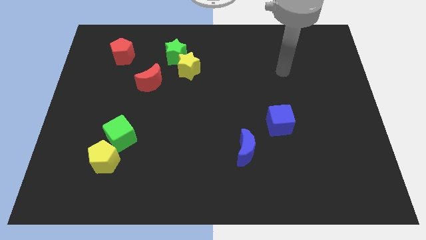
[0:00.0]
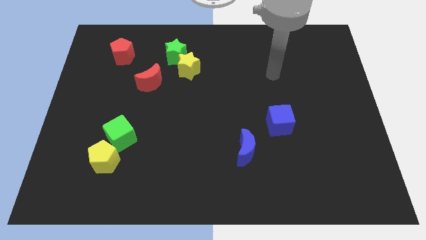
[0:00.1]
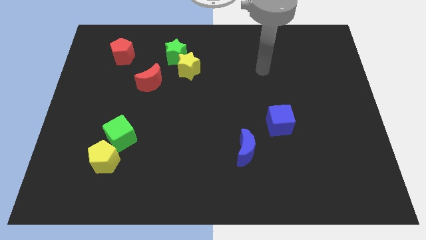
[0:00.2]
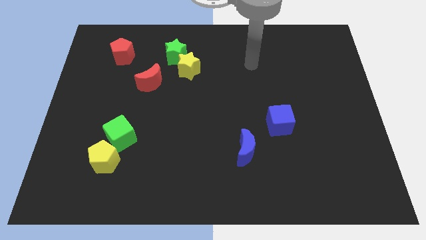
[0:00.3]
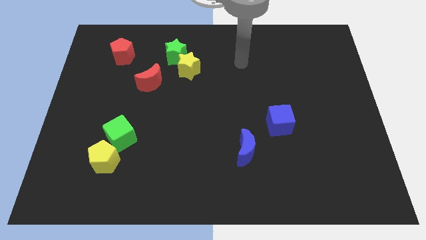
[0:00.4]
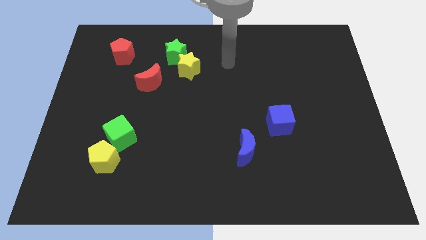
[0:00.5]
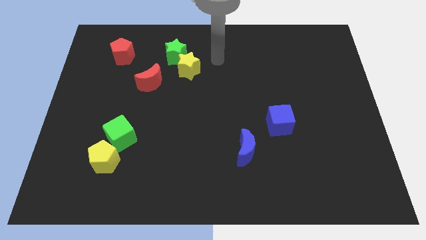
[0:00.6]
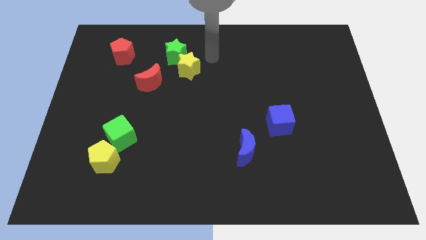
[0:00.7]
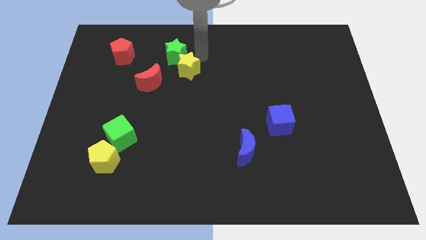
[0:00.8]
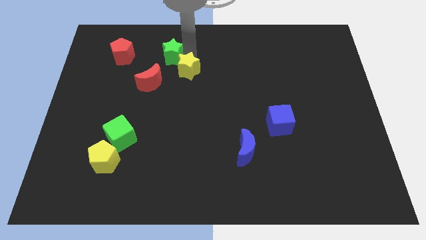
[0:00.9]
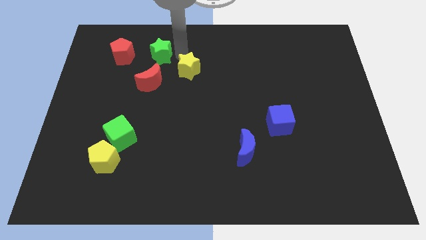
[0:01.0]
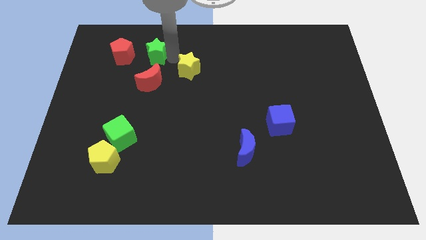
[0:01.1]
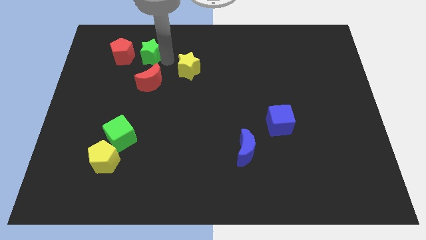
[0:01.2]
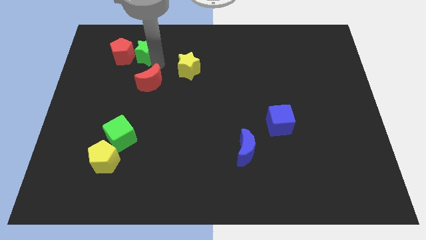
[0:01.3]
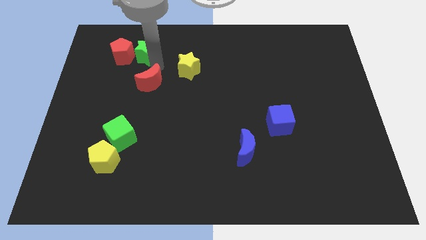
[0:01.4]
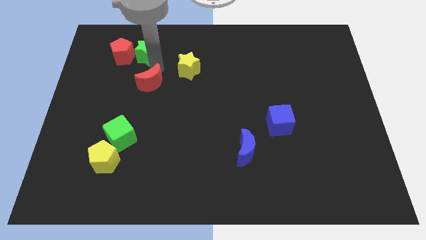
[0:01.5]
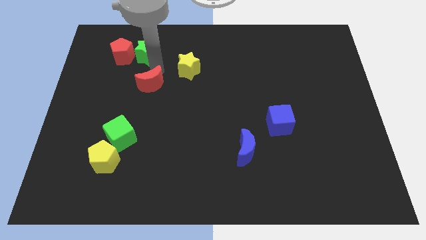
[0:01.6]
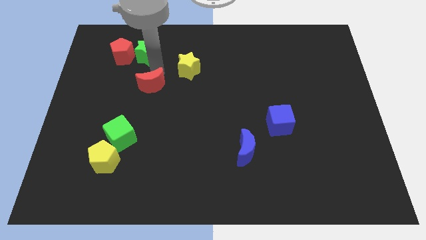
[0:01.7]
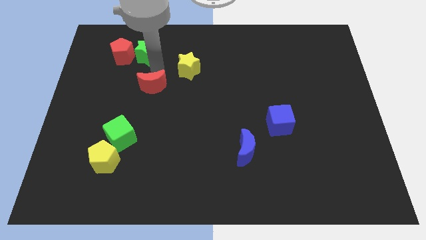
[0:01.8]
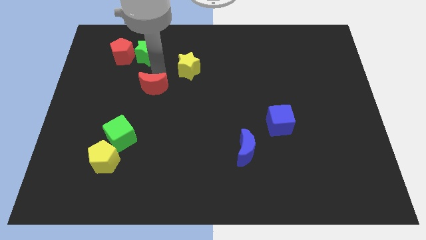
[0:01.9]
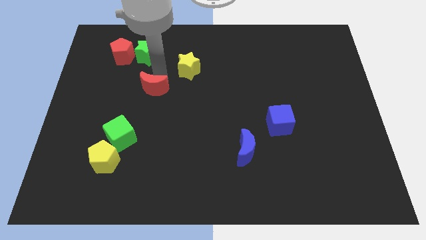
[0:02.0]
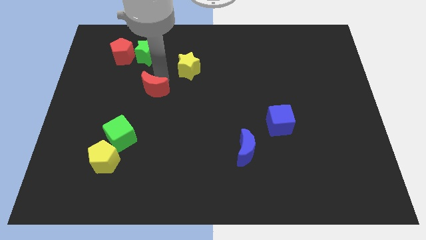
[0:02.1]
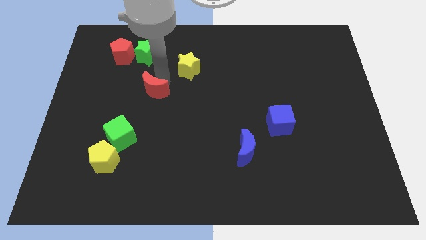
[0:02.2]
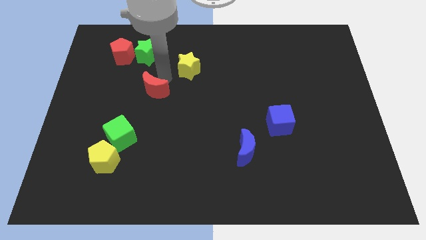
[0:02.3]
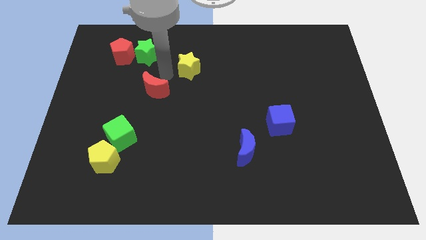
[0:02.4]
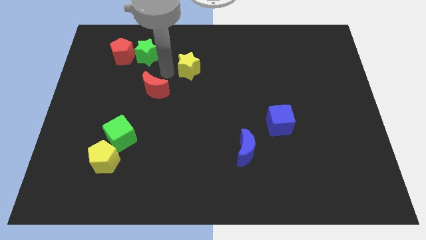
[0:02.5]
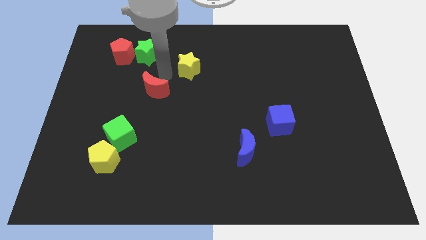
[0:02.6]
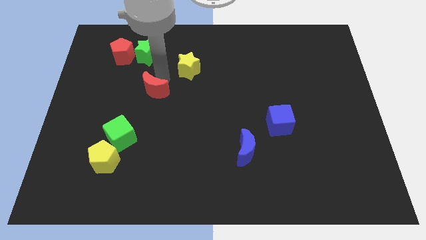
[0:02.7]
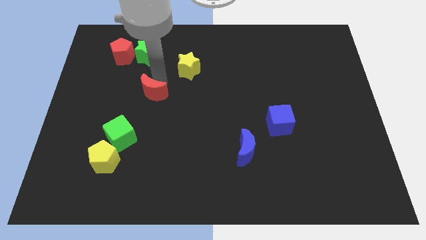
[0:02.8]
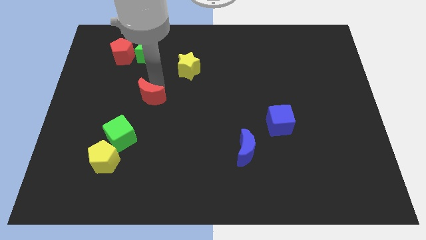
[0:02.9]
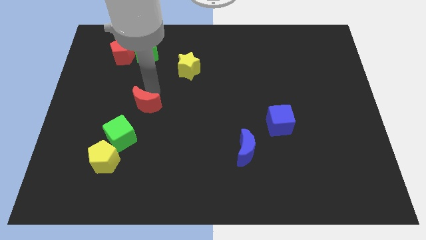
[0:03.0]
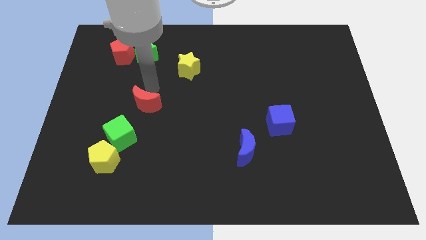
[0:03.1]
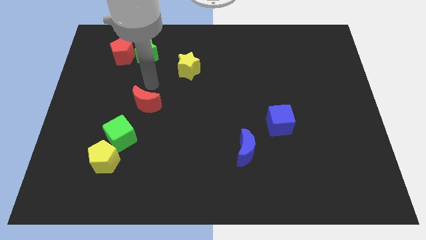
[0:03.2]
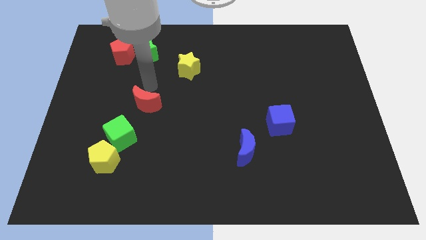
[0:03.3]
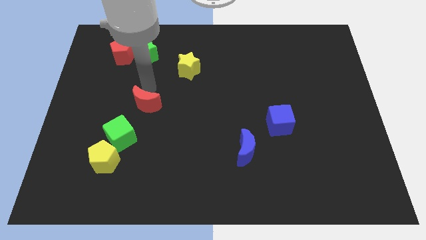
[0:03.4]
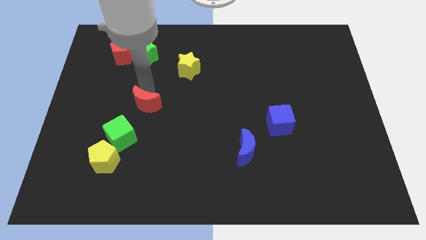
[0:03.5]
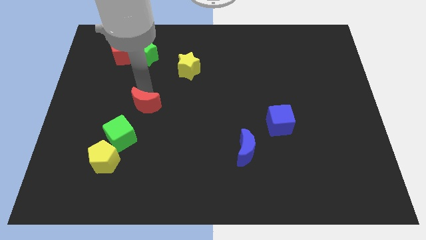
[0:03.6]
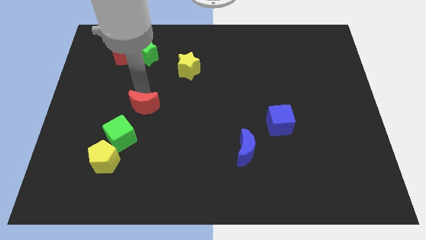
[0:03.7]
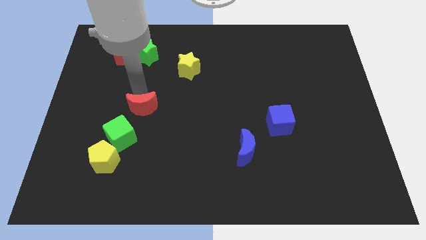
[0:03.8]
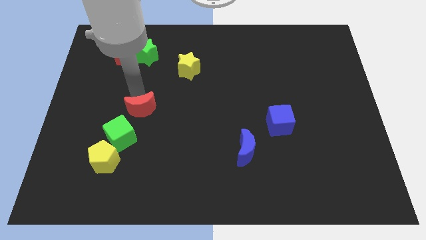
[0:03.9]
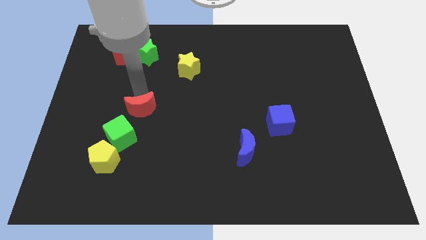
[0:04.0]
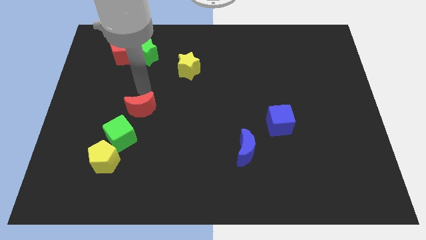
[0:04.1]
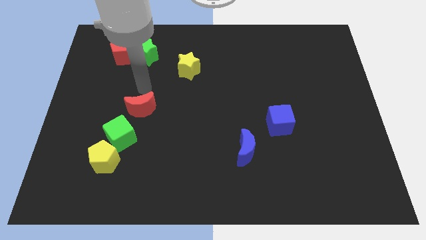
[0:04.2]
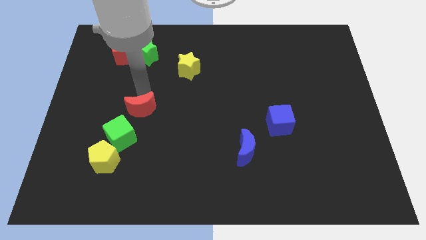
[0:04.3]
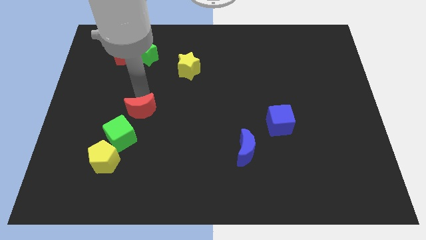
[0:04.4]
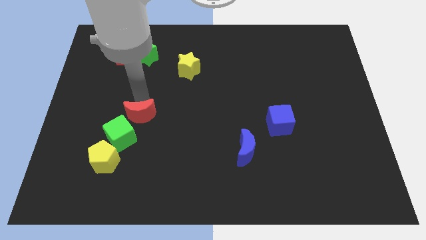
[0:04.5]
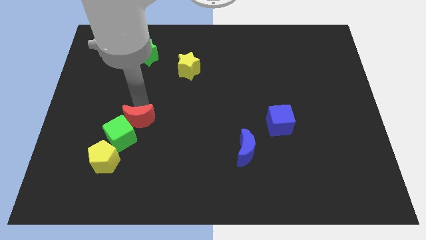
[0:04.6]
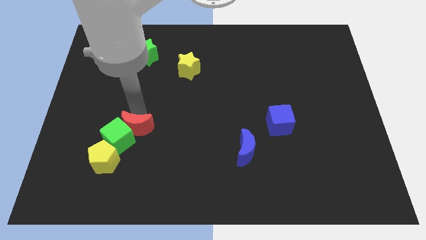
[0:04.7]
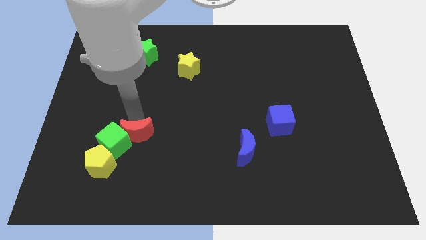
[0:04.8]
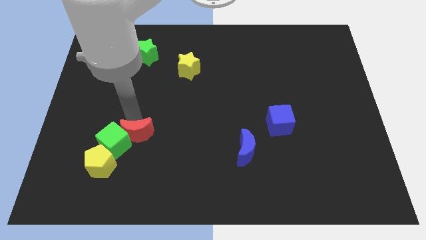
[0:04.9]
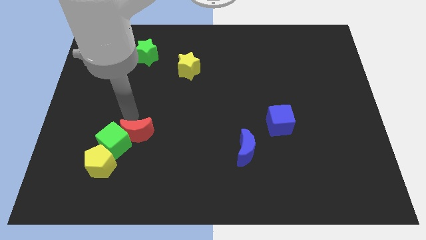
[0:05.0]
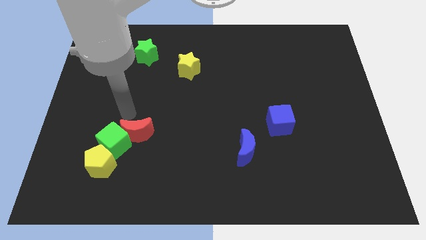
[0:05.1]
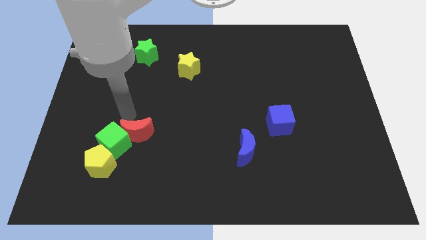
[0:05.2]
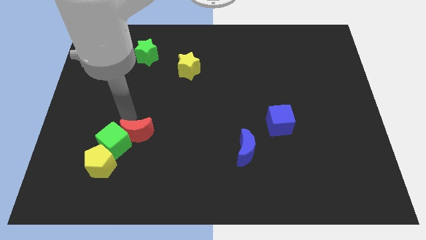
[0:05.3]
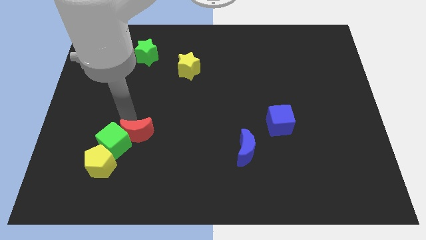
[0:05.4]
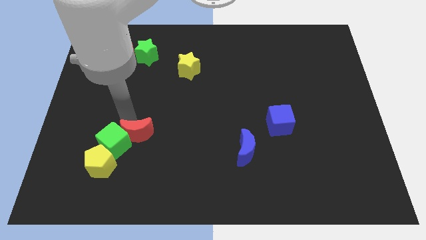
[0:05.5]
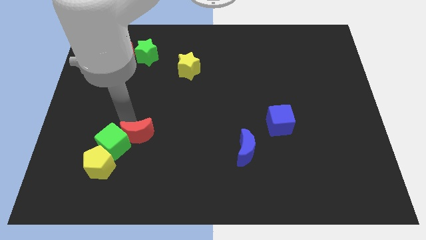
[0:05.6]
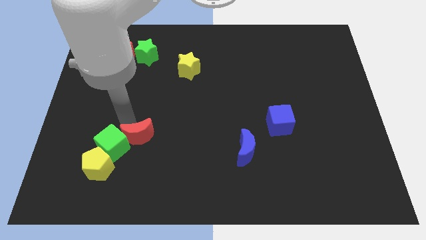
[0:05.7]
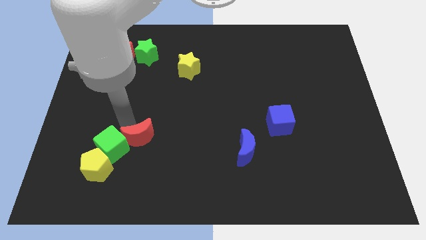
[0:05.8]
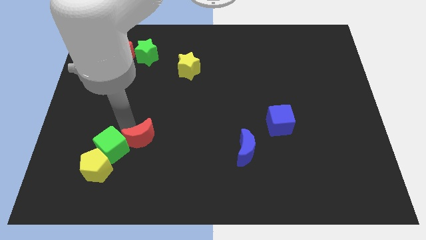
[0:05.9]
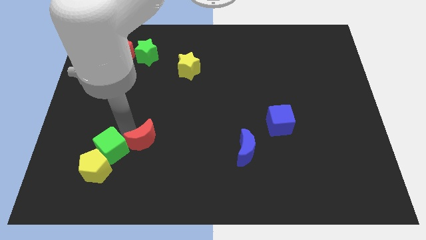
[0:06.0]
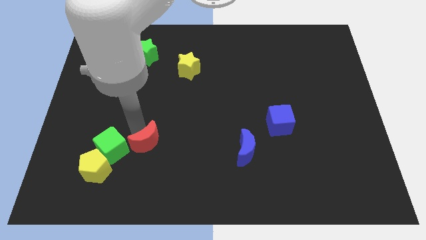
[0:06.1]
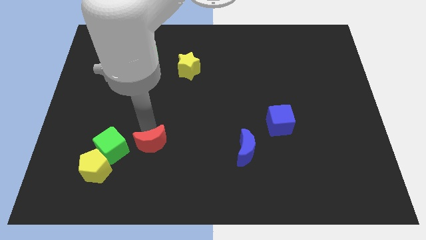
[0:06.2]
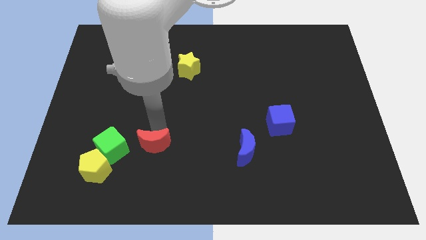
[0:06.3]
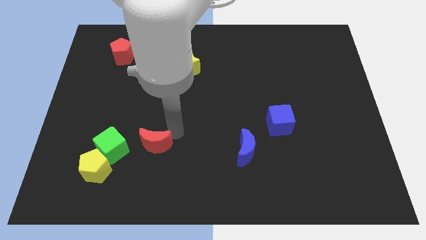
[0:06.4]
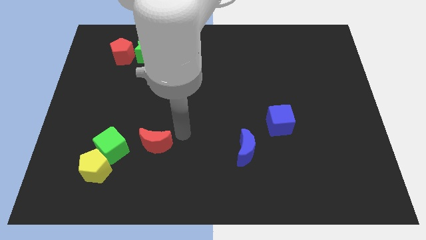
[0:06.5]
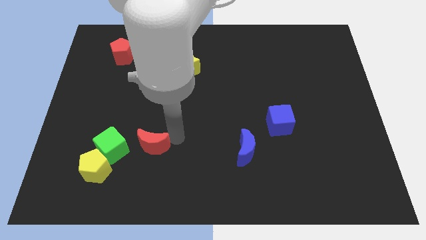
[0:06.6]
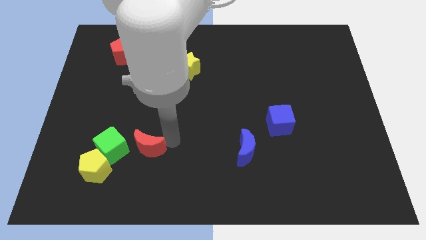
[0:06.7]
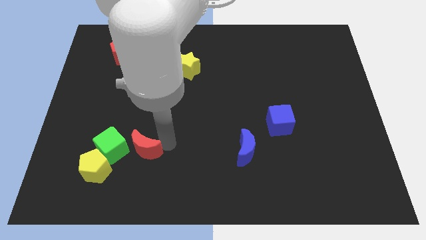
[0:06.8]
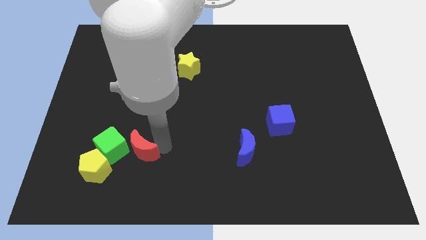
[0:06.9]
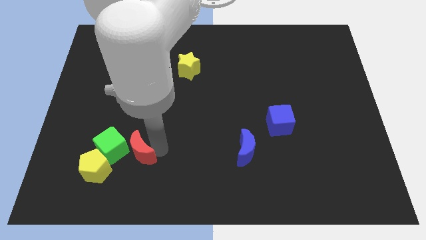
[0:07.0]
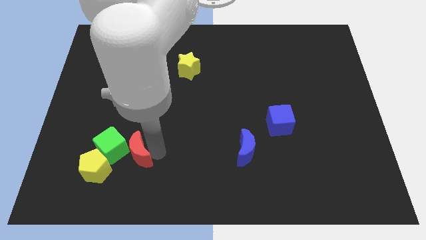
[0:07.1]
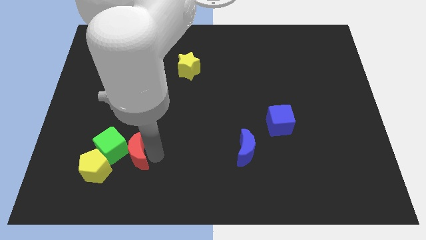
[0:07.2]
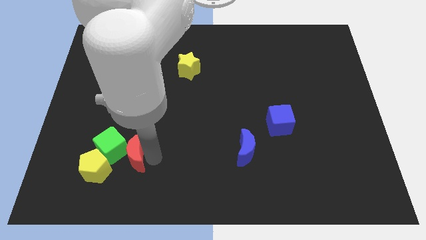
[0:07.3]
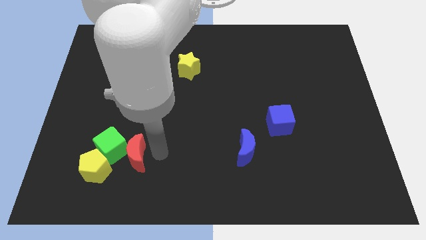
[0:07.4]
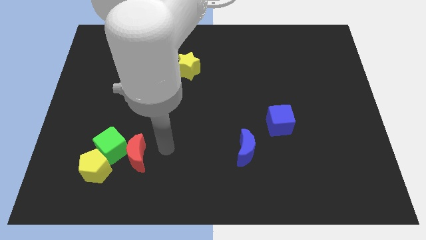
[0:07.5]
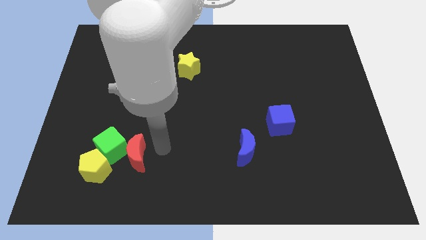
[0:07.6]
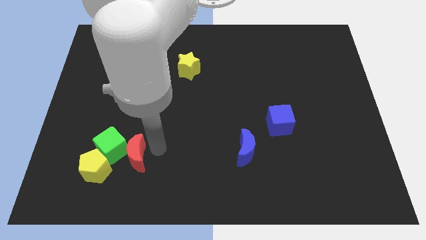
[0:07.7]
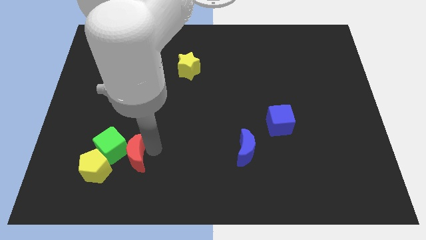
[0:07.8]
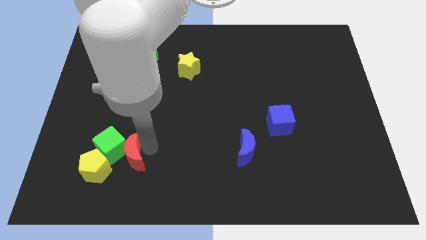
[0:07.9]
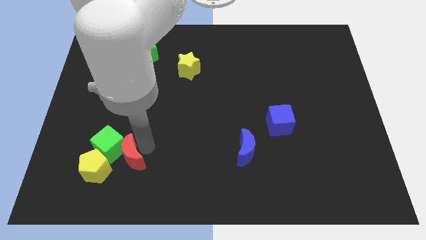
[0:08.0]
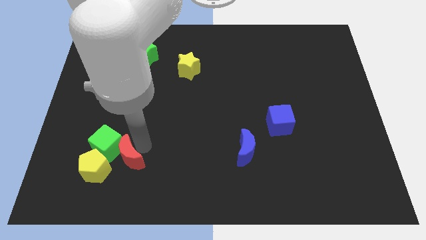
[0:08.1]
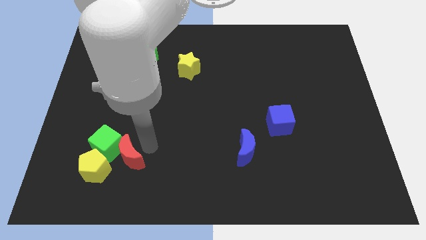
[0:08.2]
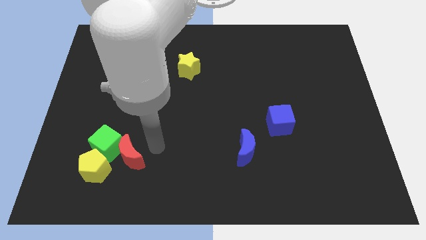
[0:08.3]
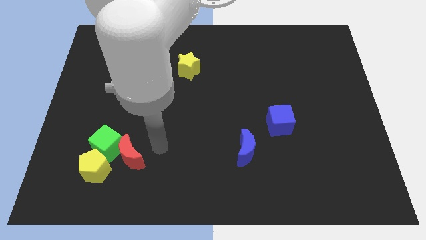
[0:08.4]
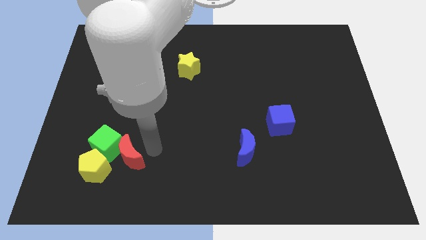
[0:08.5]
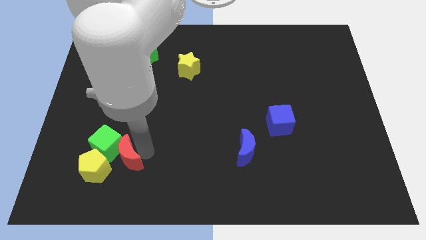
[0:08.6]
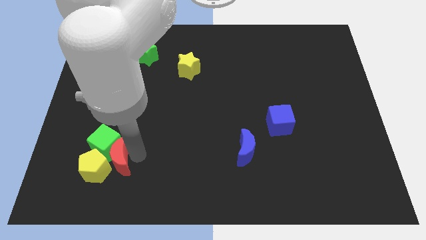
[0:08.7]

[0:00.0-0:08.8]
push the red moon close to the yellow pentagon
